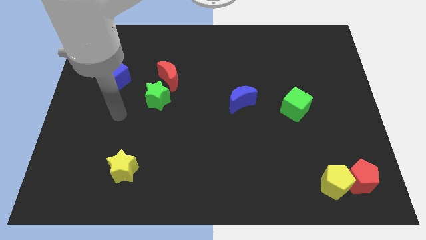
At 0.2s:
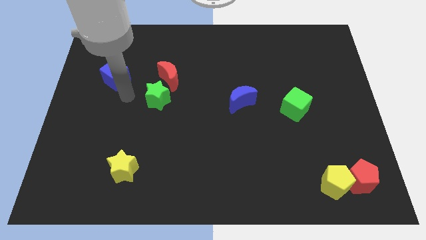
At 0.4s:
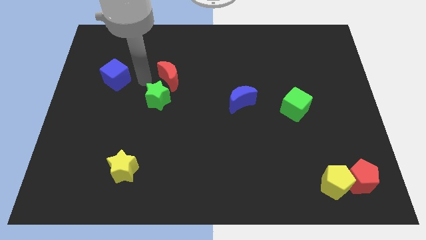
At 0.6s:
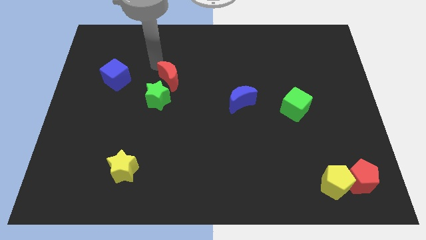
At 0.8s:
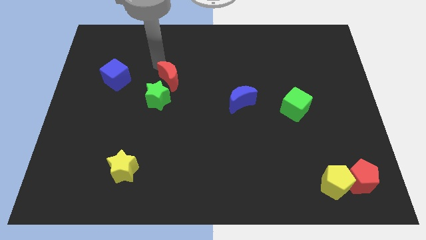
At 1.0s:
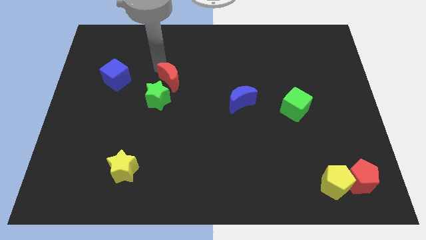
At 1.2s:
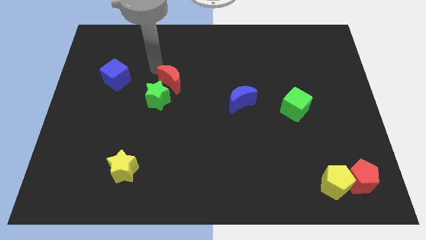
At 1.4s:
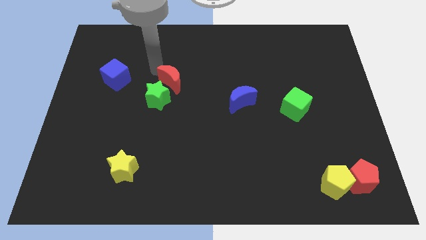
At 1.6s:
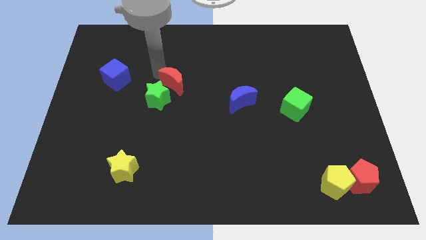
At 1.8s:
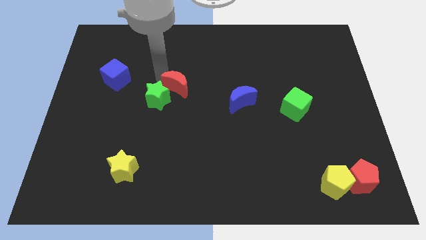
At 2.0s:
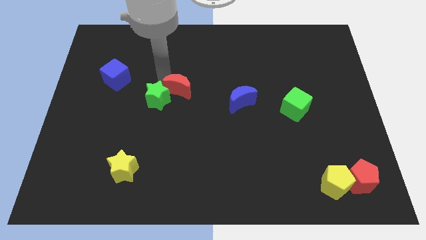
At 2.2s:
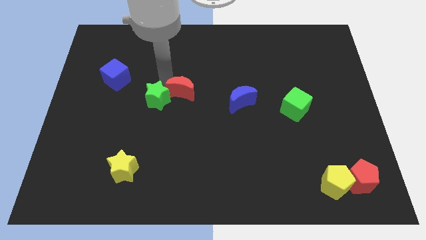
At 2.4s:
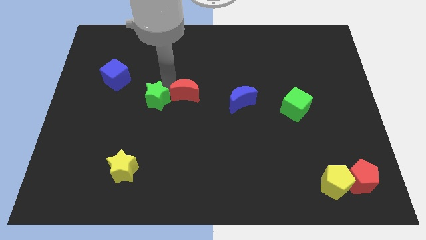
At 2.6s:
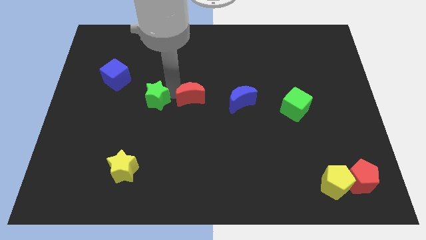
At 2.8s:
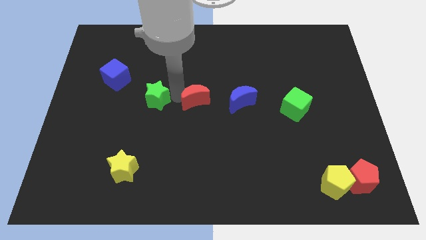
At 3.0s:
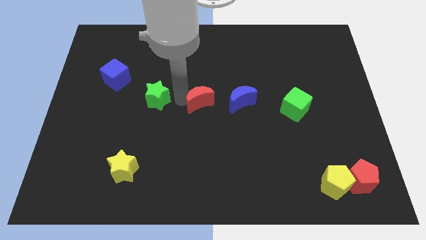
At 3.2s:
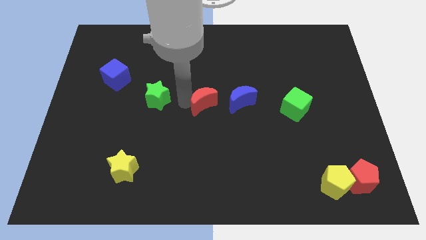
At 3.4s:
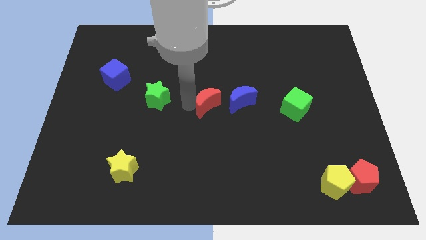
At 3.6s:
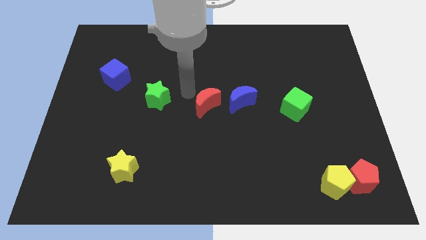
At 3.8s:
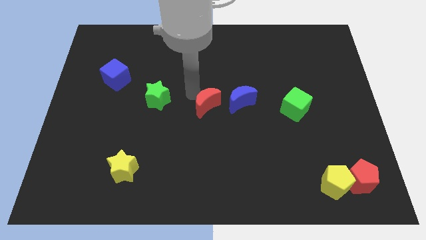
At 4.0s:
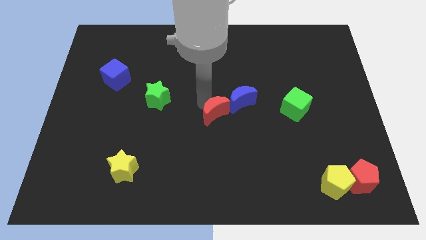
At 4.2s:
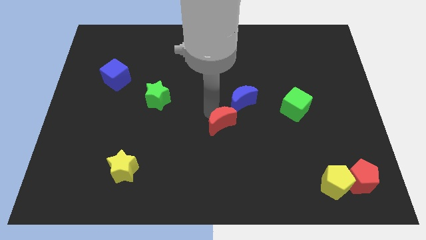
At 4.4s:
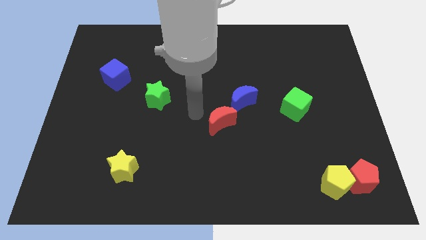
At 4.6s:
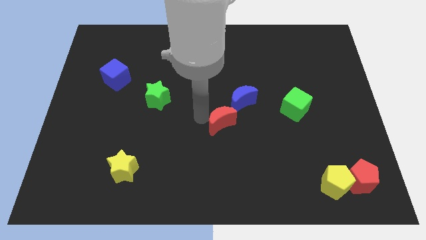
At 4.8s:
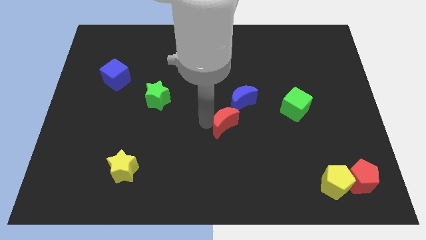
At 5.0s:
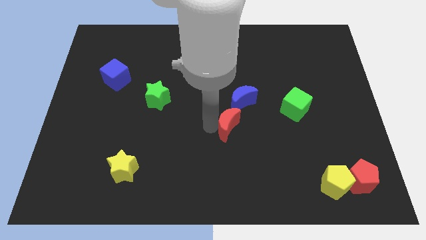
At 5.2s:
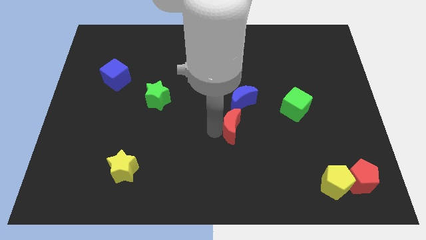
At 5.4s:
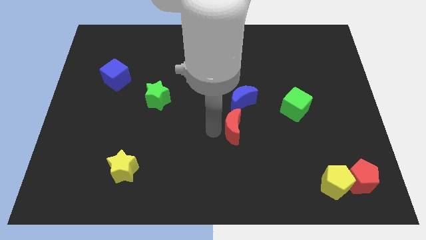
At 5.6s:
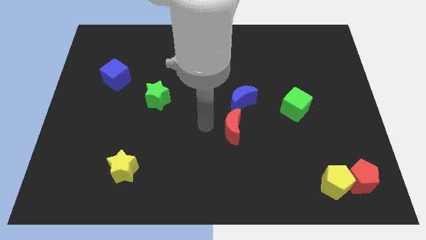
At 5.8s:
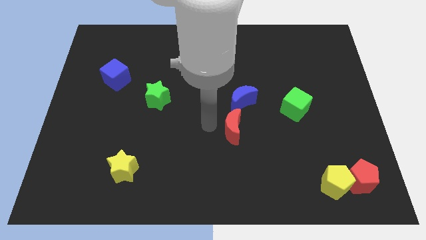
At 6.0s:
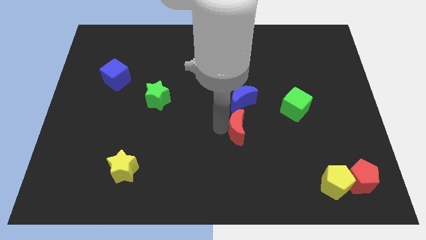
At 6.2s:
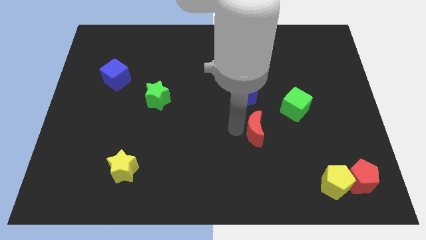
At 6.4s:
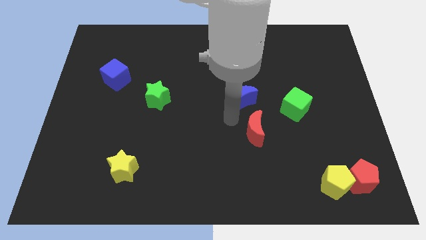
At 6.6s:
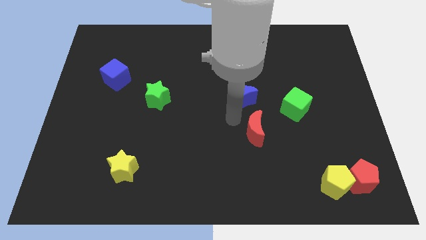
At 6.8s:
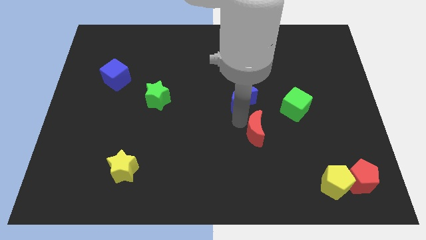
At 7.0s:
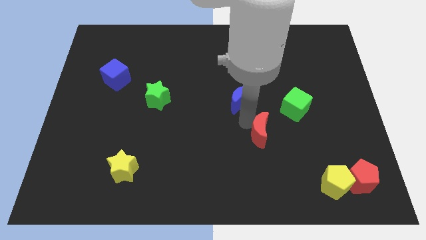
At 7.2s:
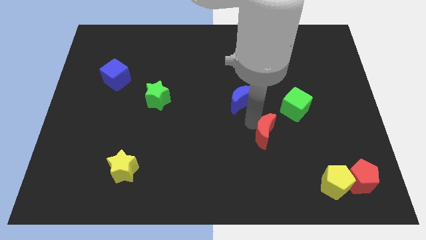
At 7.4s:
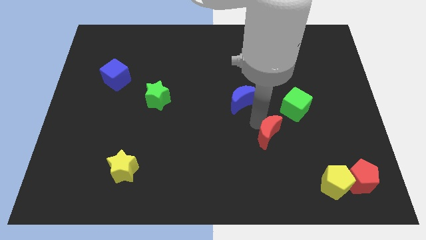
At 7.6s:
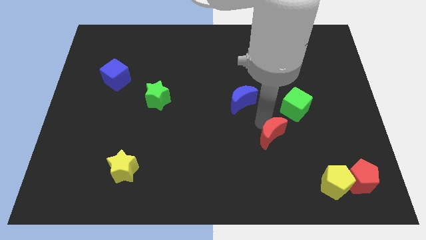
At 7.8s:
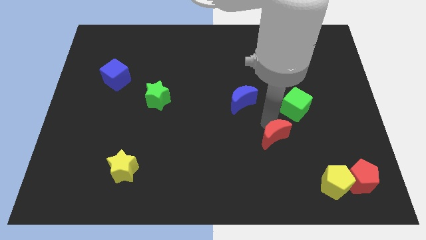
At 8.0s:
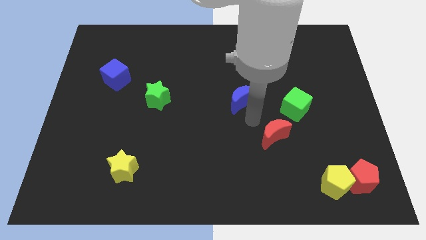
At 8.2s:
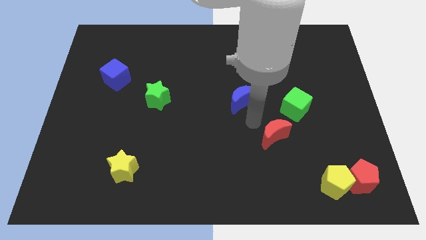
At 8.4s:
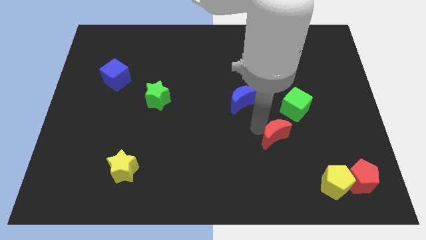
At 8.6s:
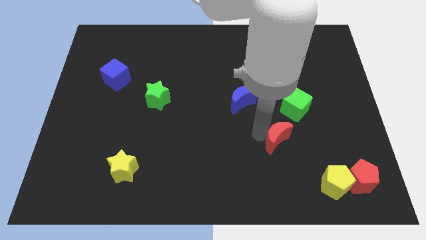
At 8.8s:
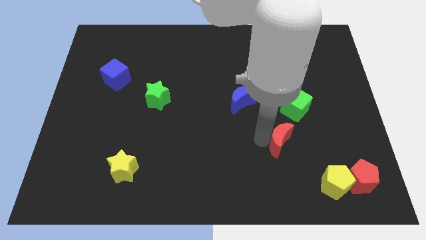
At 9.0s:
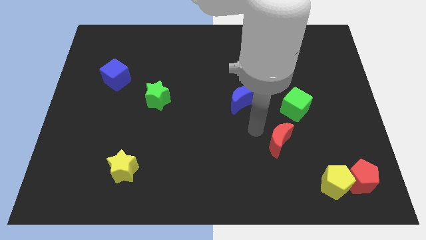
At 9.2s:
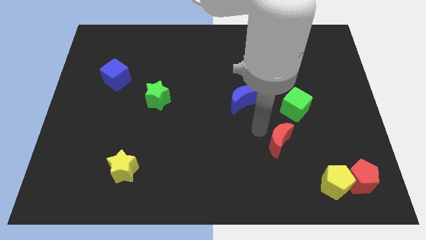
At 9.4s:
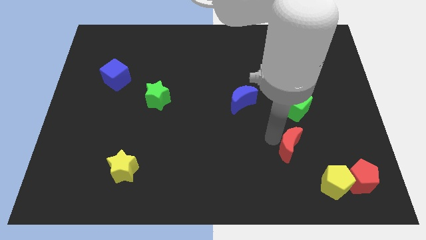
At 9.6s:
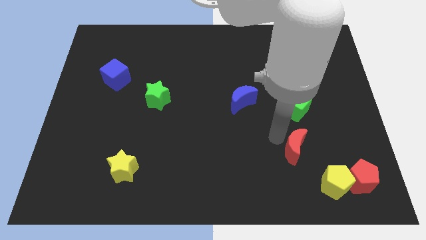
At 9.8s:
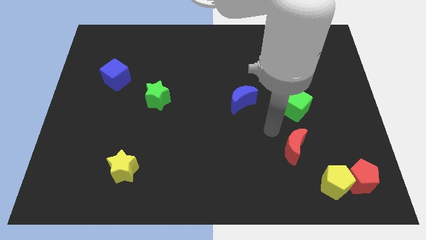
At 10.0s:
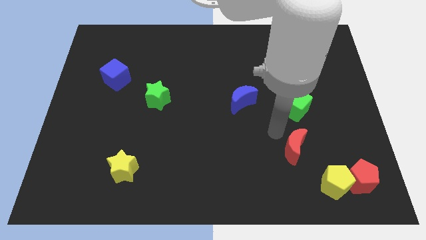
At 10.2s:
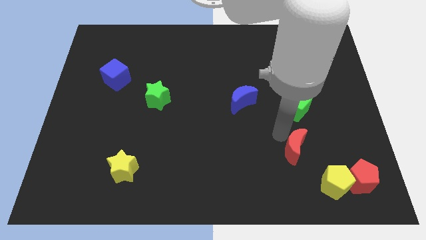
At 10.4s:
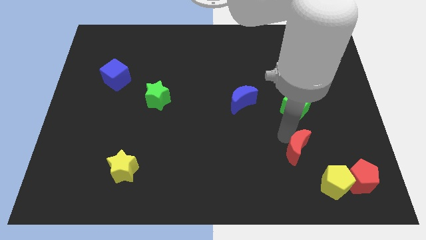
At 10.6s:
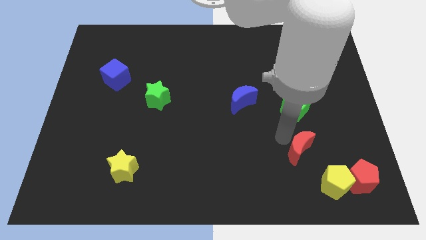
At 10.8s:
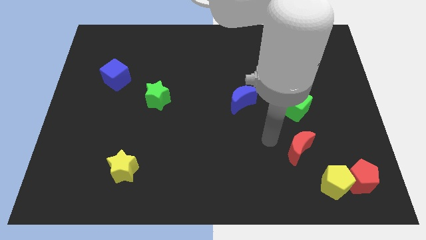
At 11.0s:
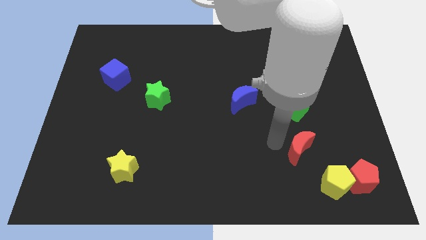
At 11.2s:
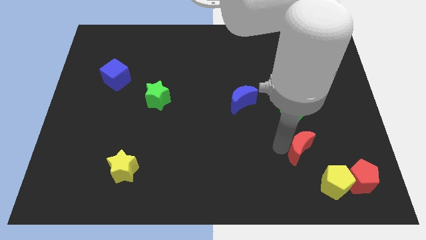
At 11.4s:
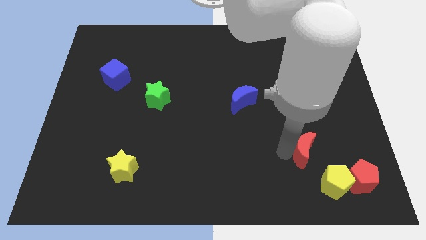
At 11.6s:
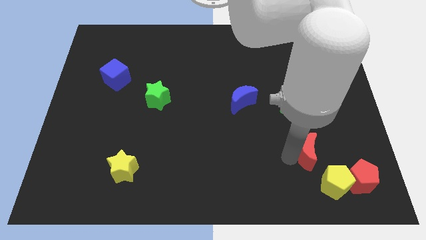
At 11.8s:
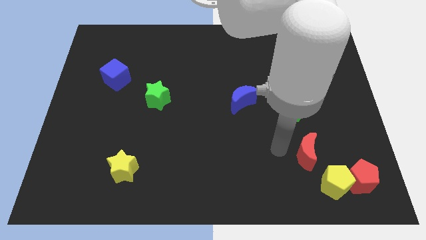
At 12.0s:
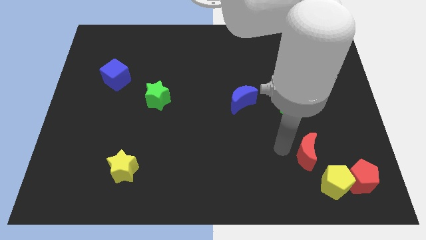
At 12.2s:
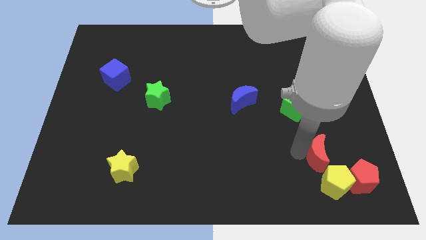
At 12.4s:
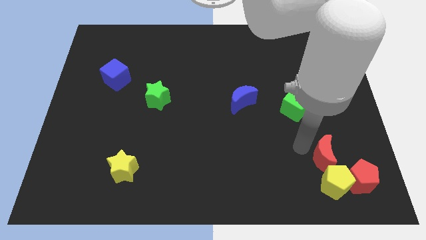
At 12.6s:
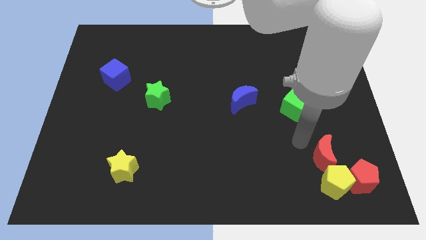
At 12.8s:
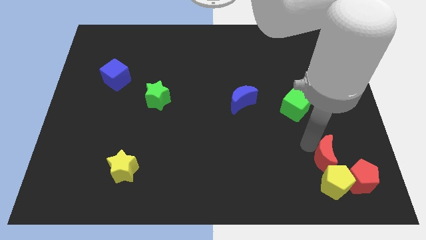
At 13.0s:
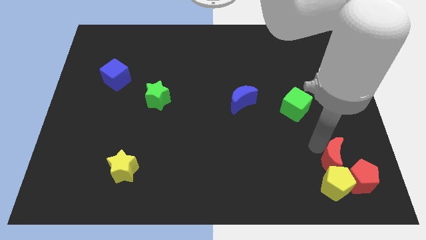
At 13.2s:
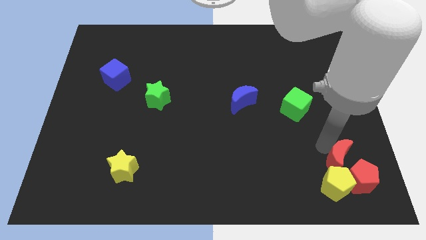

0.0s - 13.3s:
slide the red moon towards the red pentagon

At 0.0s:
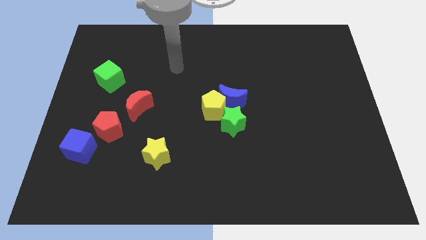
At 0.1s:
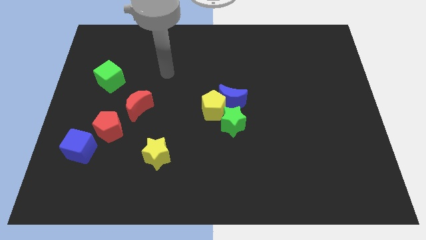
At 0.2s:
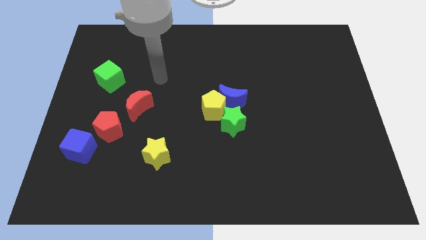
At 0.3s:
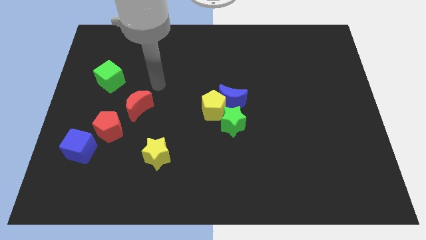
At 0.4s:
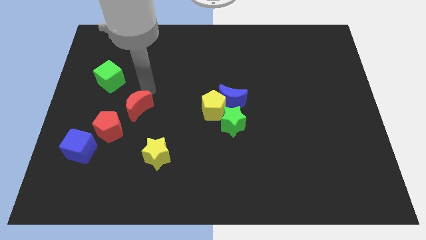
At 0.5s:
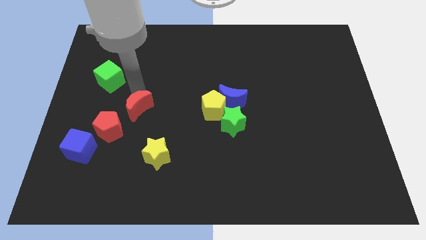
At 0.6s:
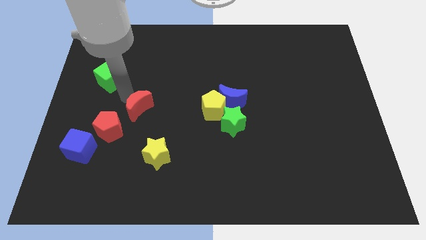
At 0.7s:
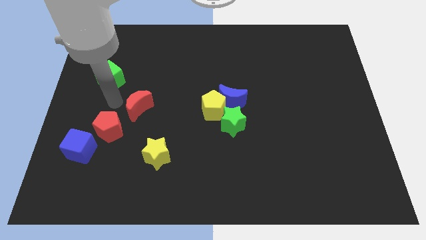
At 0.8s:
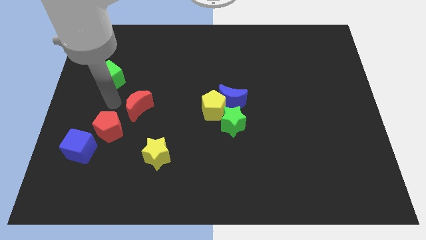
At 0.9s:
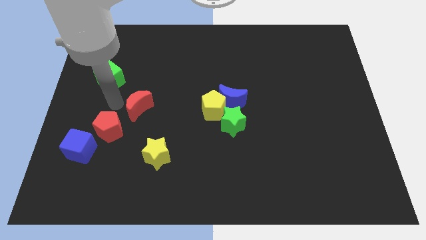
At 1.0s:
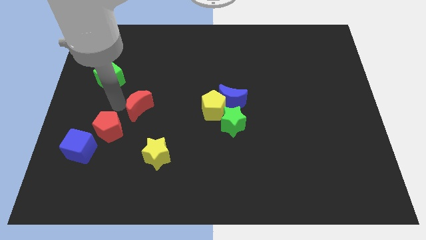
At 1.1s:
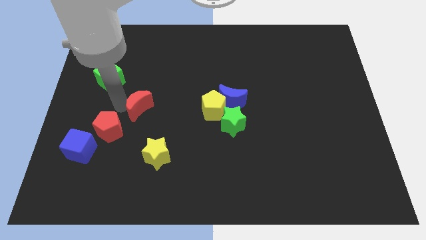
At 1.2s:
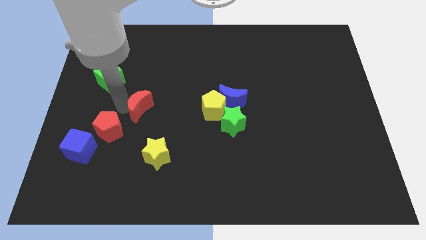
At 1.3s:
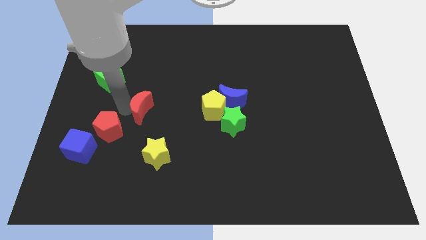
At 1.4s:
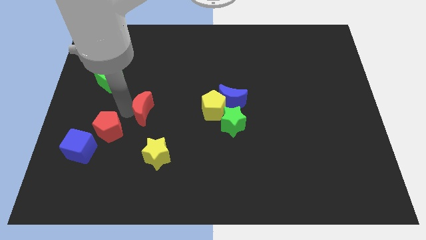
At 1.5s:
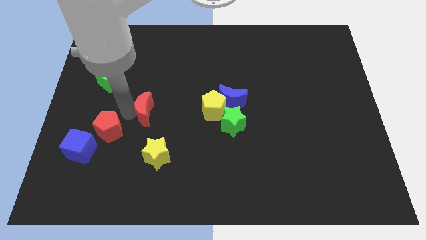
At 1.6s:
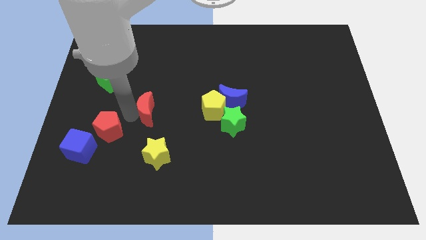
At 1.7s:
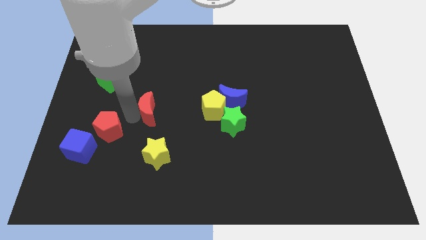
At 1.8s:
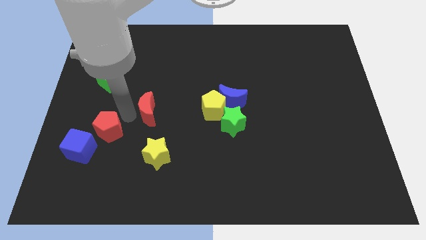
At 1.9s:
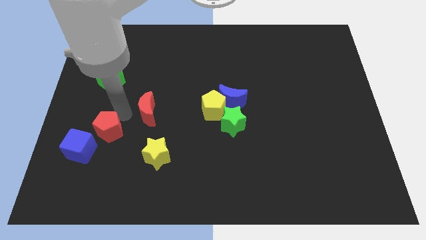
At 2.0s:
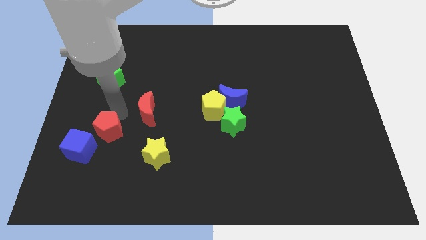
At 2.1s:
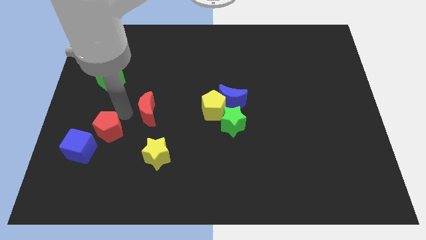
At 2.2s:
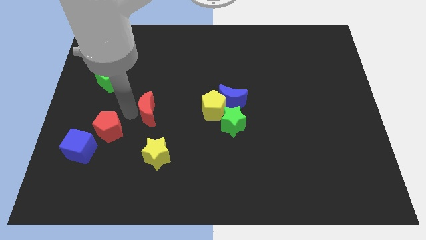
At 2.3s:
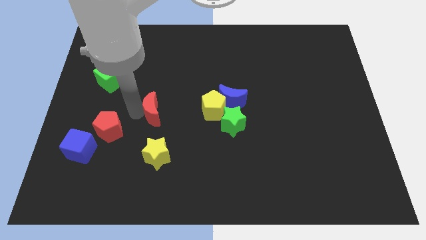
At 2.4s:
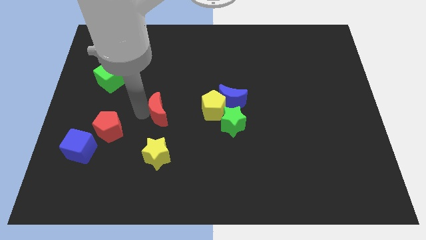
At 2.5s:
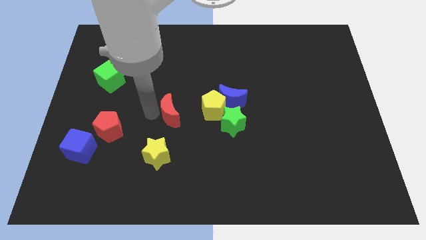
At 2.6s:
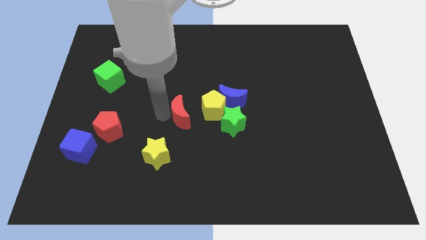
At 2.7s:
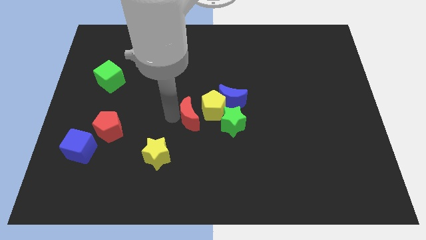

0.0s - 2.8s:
slide the red moon close to the yellow pentagon
